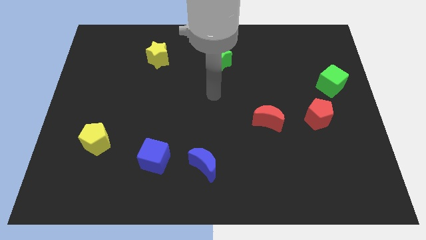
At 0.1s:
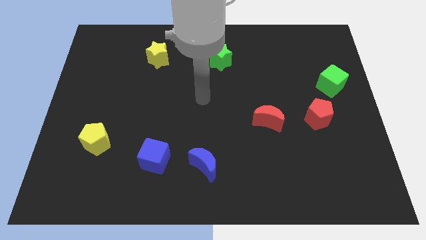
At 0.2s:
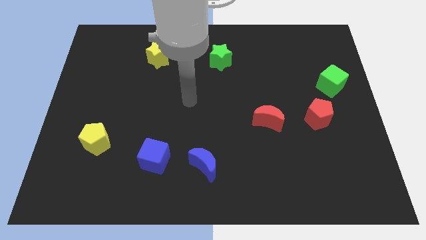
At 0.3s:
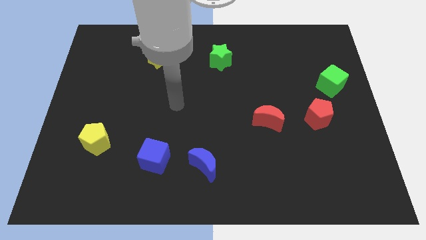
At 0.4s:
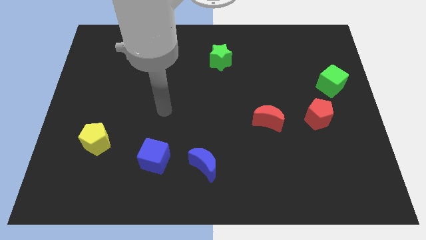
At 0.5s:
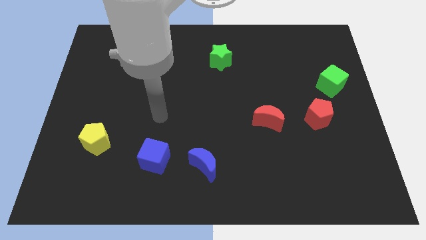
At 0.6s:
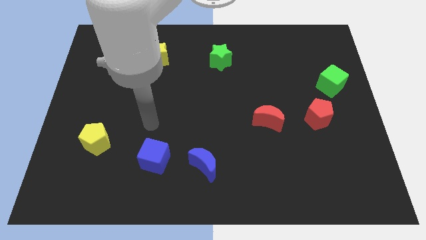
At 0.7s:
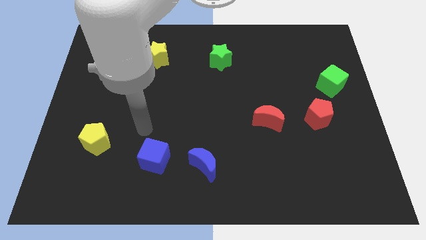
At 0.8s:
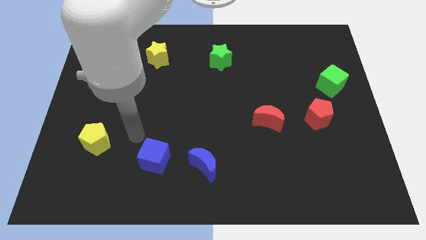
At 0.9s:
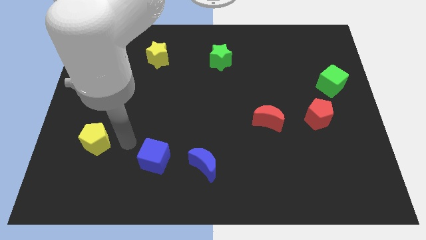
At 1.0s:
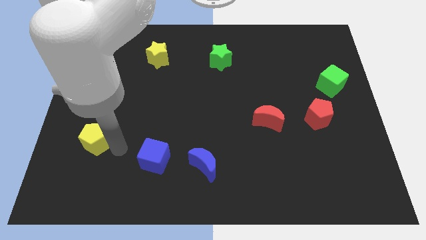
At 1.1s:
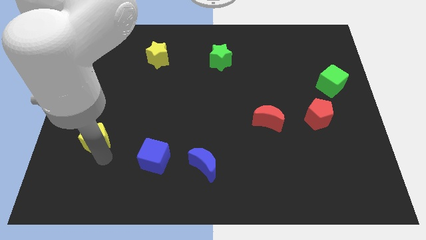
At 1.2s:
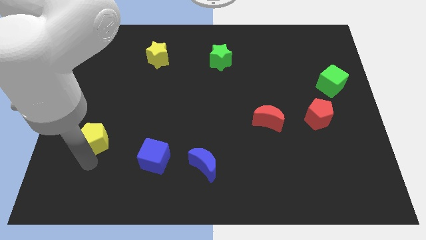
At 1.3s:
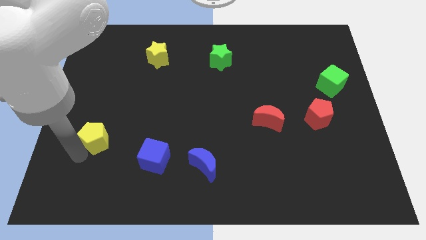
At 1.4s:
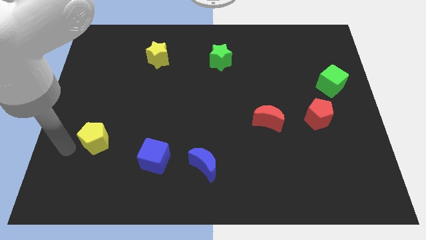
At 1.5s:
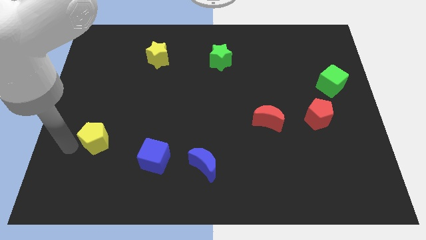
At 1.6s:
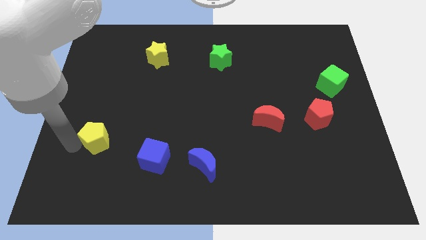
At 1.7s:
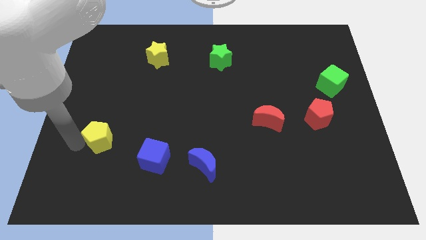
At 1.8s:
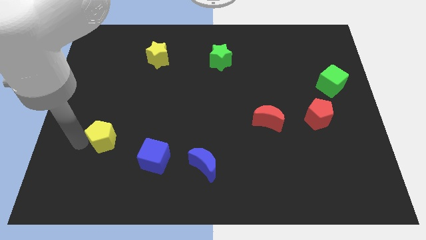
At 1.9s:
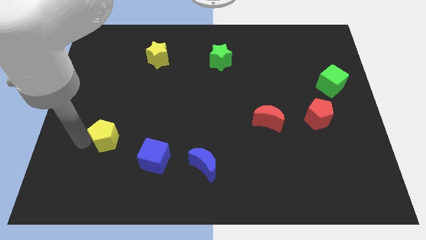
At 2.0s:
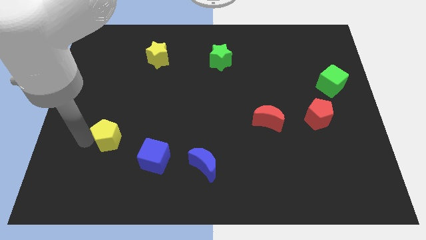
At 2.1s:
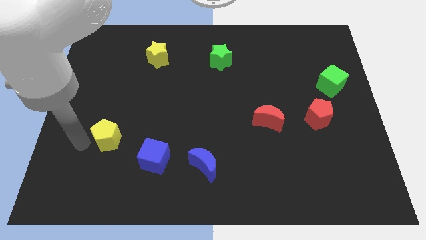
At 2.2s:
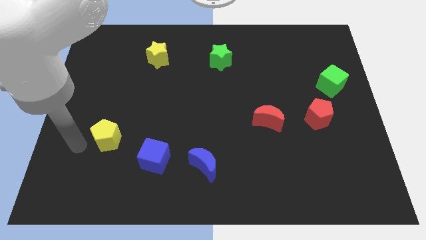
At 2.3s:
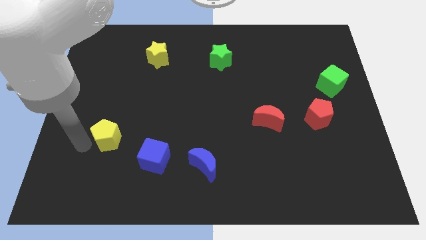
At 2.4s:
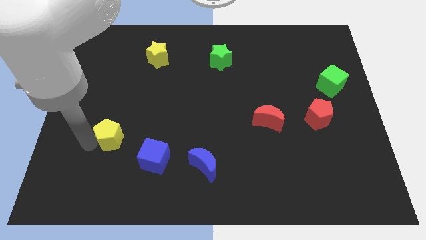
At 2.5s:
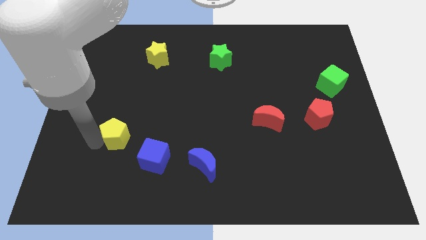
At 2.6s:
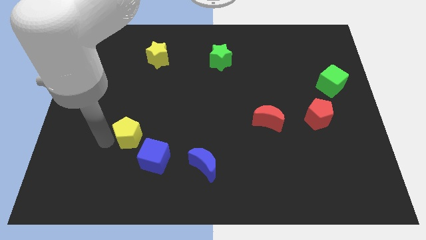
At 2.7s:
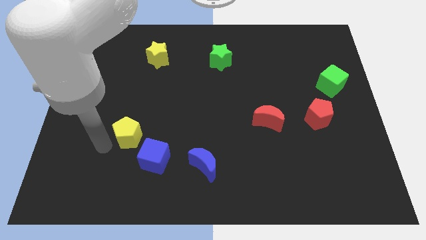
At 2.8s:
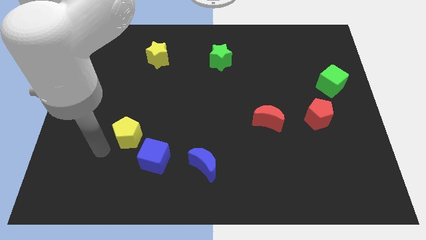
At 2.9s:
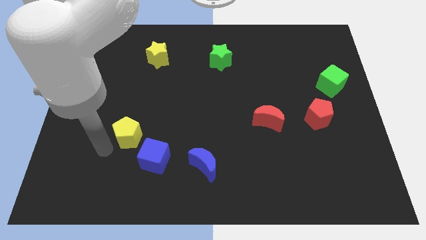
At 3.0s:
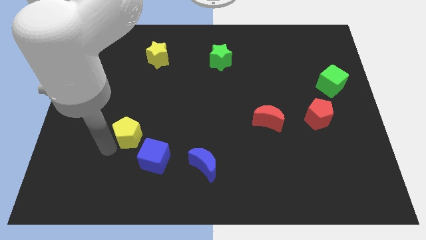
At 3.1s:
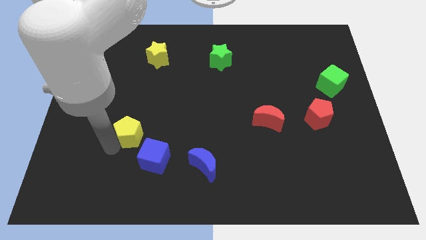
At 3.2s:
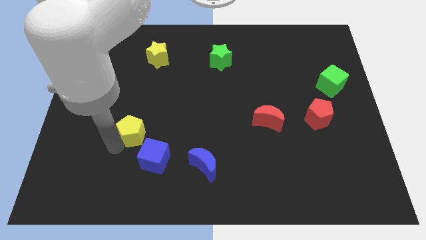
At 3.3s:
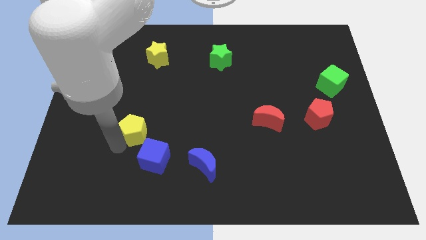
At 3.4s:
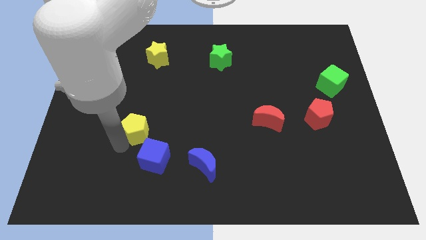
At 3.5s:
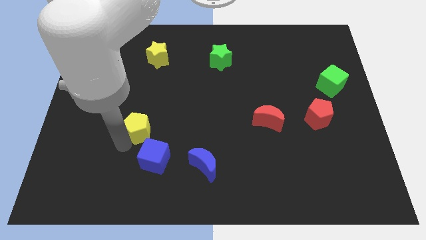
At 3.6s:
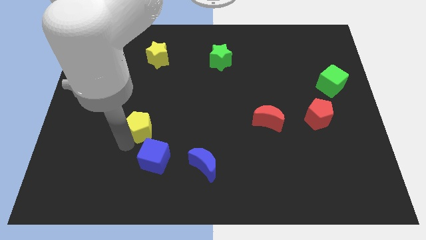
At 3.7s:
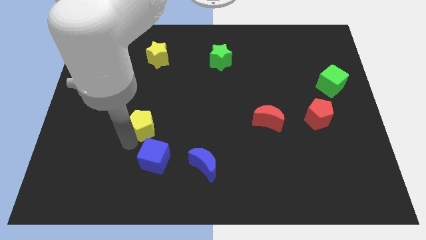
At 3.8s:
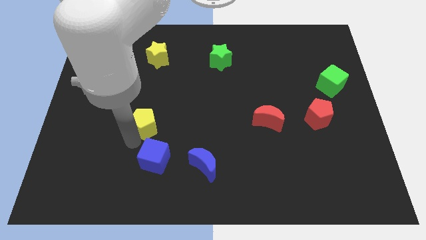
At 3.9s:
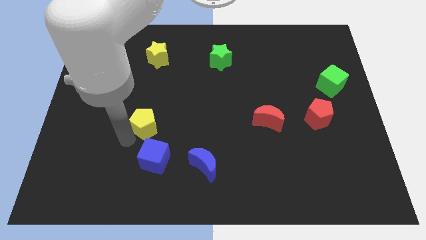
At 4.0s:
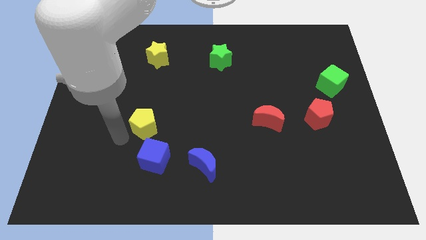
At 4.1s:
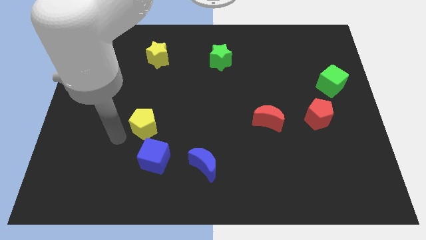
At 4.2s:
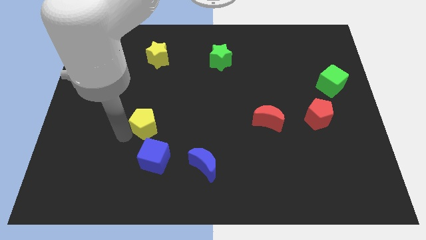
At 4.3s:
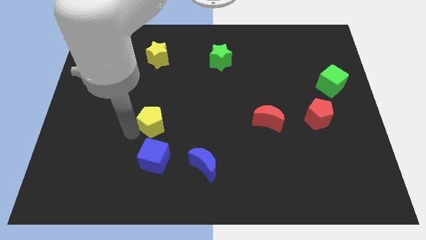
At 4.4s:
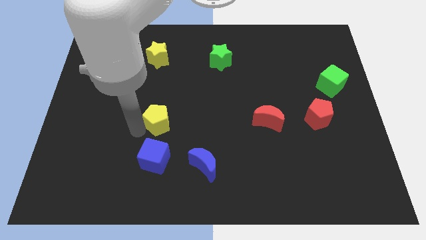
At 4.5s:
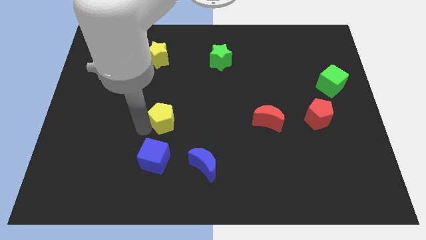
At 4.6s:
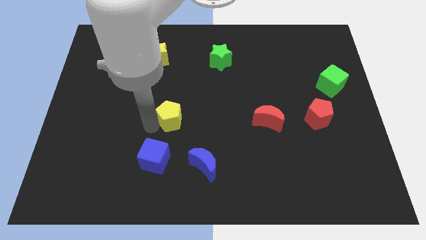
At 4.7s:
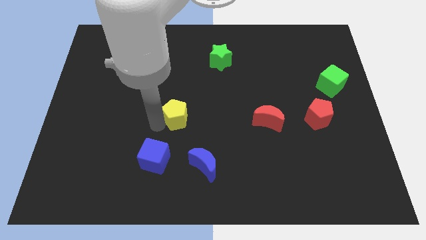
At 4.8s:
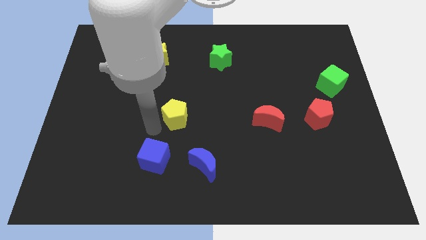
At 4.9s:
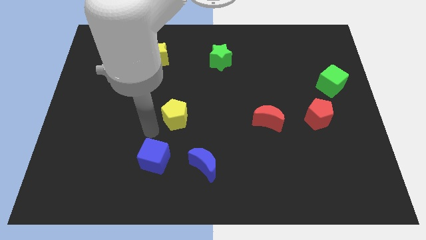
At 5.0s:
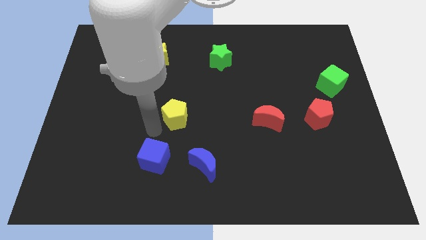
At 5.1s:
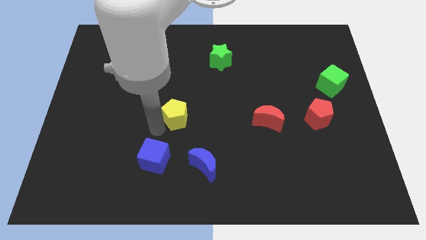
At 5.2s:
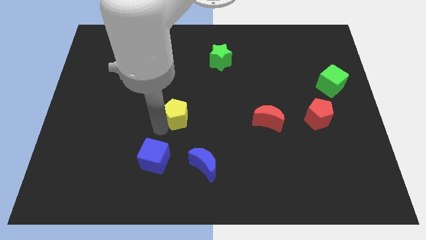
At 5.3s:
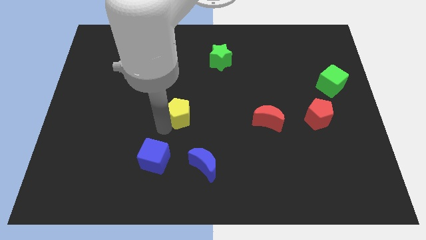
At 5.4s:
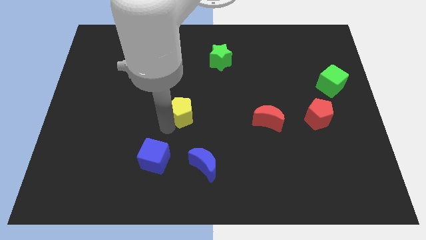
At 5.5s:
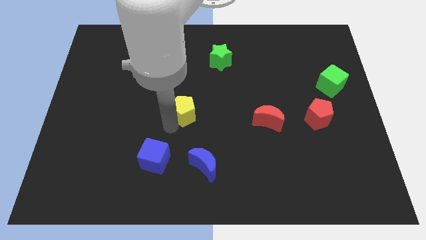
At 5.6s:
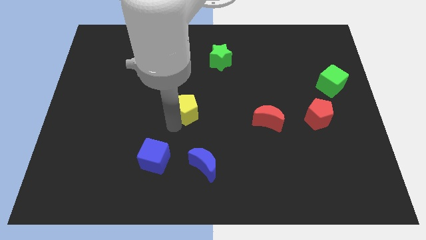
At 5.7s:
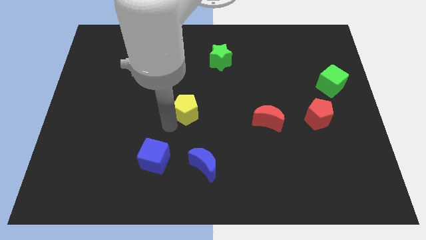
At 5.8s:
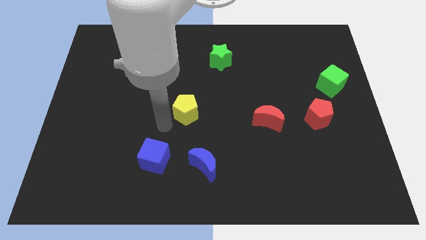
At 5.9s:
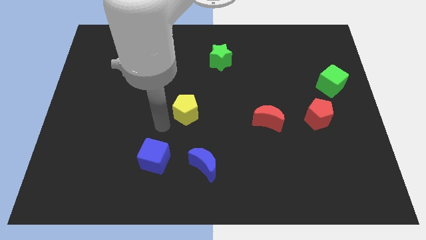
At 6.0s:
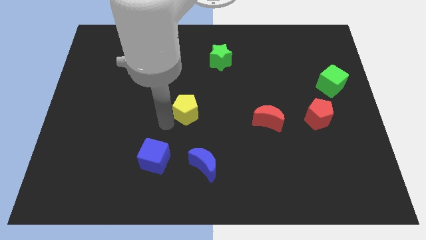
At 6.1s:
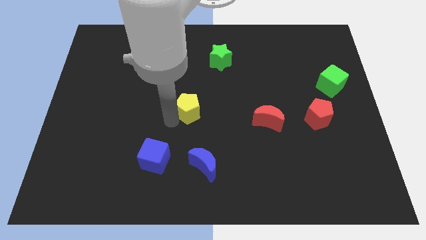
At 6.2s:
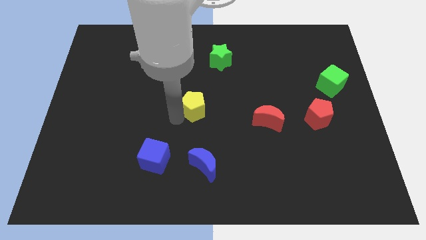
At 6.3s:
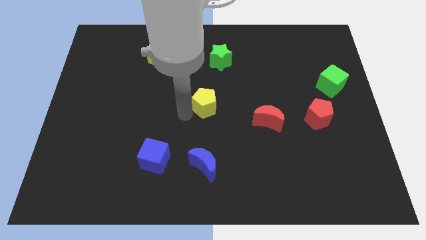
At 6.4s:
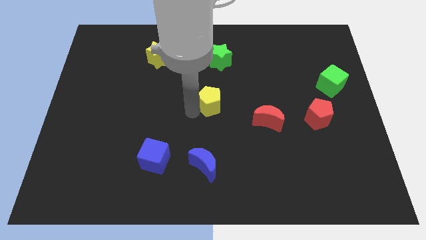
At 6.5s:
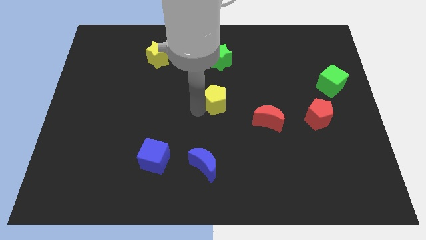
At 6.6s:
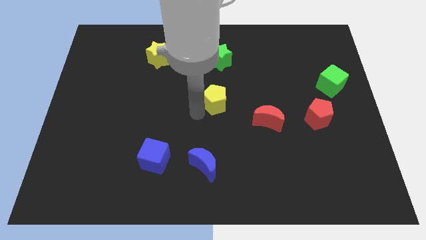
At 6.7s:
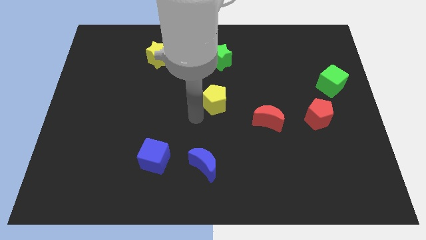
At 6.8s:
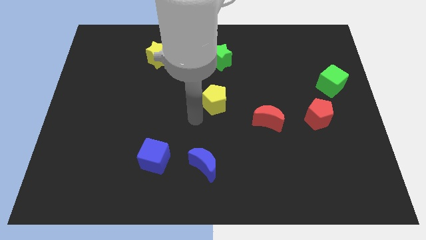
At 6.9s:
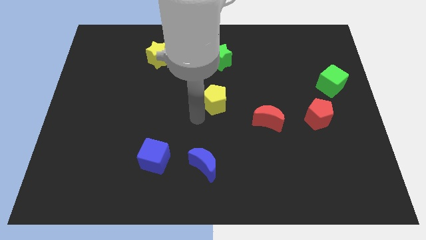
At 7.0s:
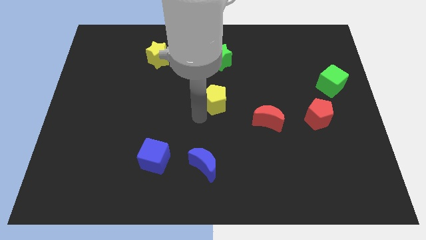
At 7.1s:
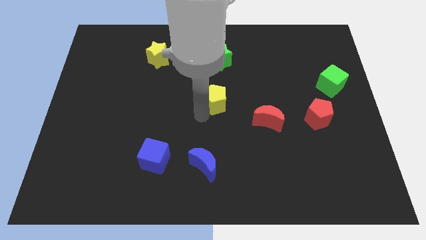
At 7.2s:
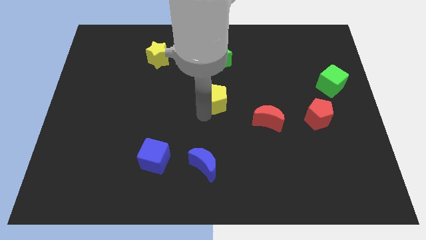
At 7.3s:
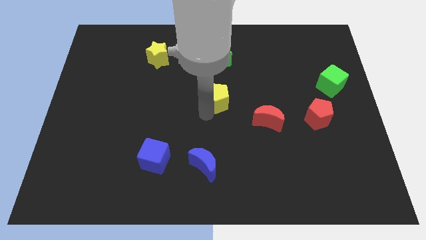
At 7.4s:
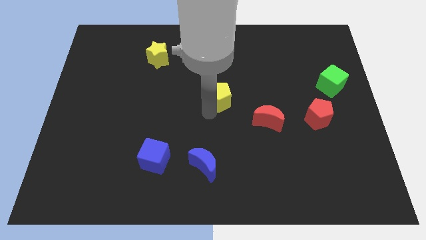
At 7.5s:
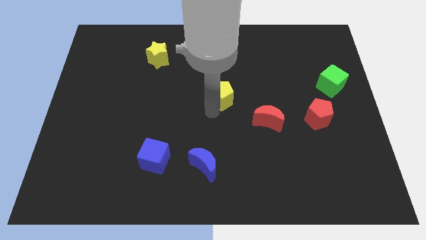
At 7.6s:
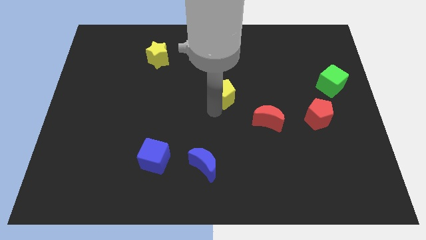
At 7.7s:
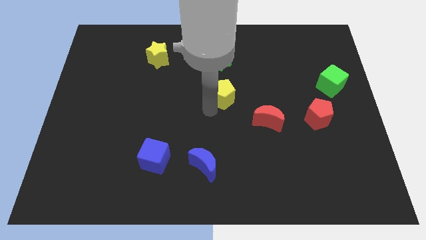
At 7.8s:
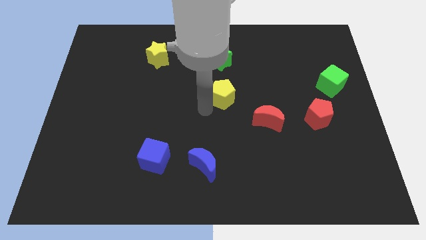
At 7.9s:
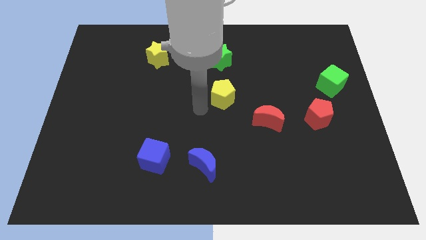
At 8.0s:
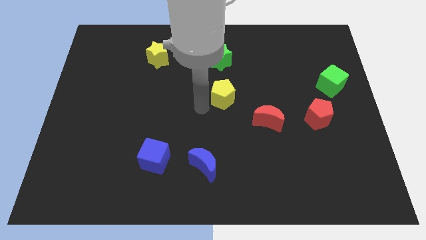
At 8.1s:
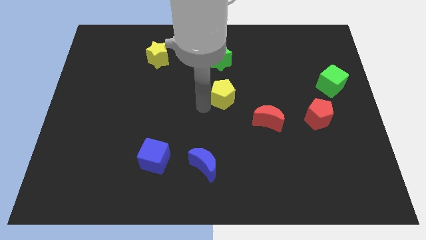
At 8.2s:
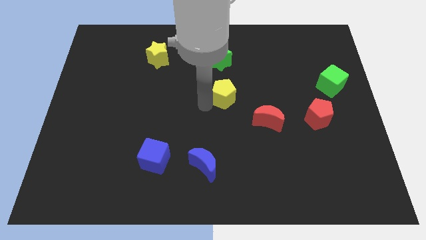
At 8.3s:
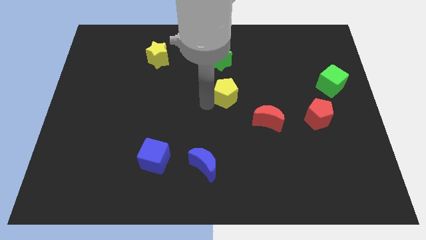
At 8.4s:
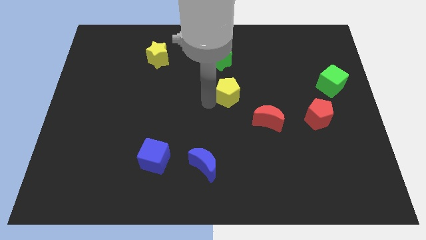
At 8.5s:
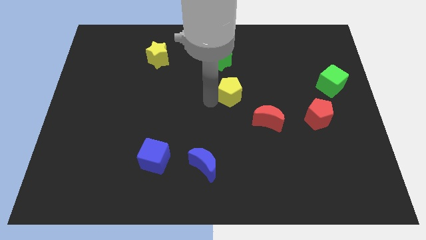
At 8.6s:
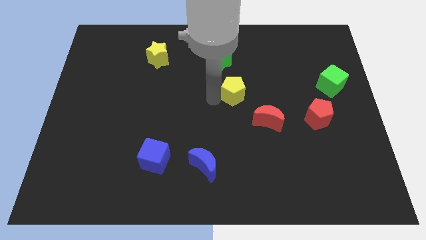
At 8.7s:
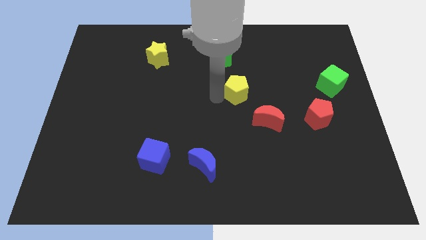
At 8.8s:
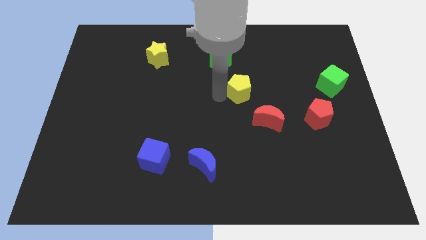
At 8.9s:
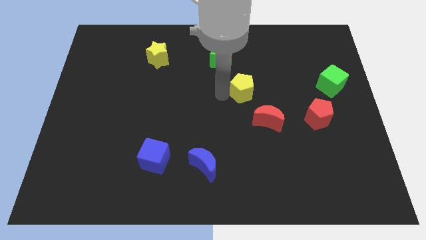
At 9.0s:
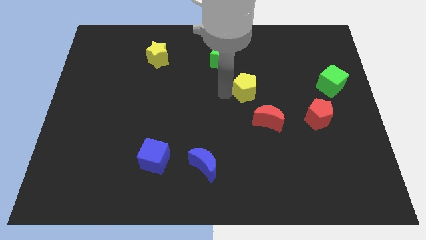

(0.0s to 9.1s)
put the yellow pentagon to the top of the red moon
